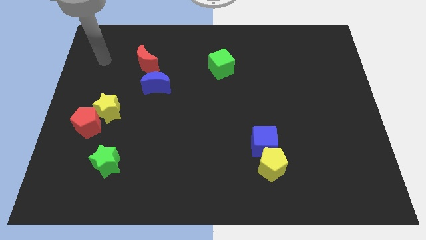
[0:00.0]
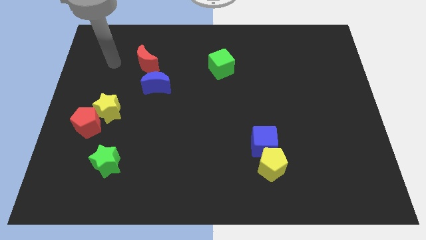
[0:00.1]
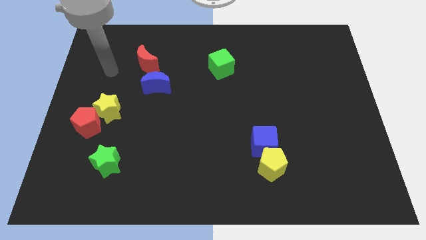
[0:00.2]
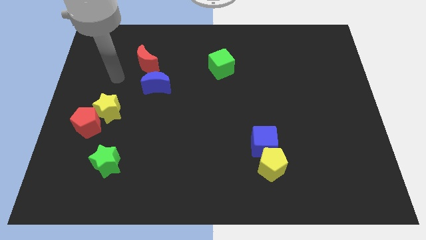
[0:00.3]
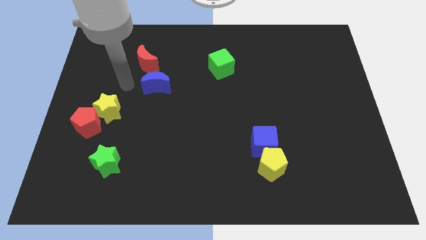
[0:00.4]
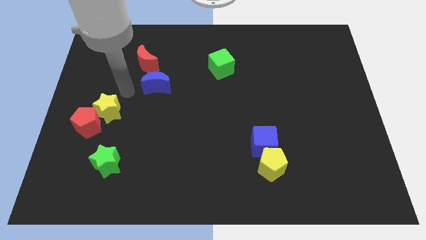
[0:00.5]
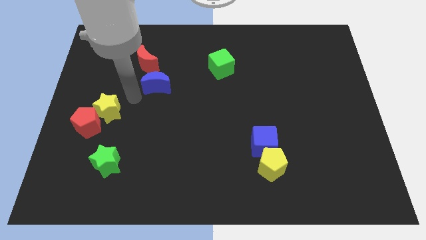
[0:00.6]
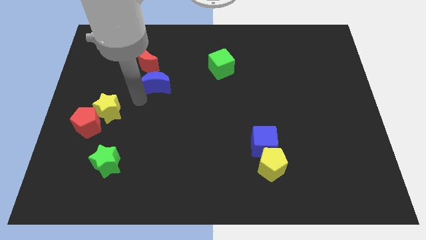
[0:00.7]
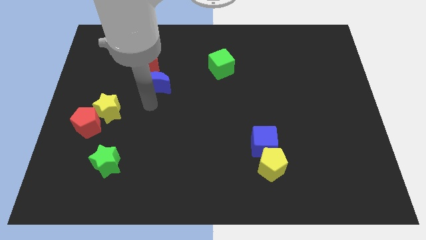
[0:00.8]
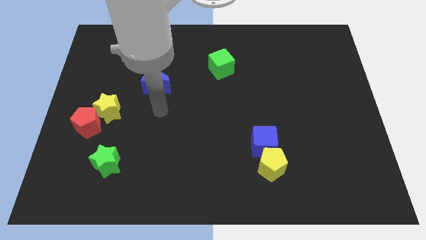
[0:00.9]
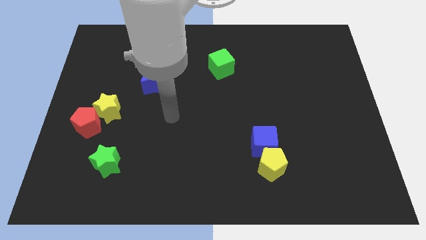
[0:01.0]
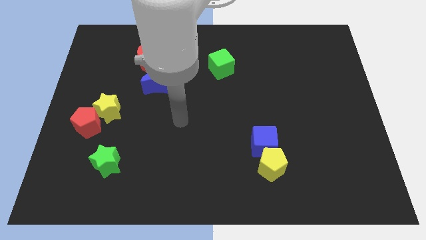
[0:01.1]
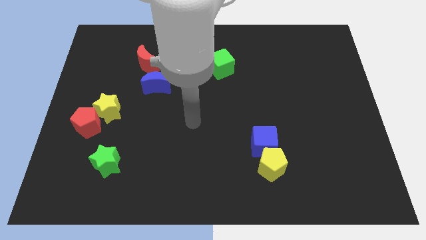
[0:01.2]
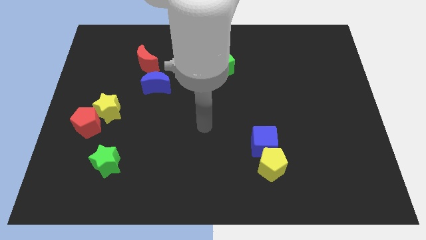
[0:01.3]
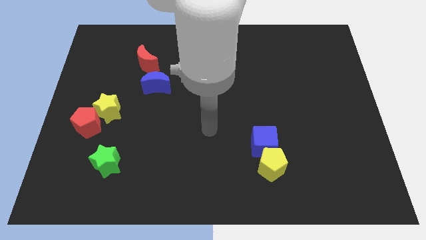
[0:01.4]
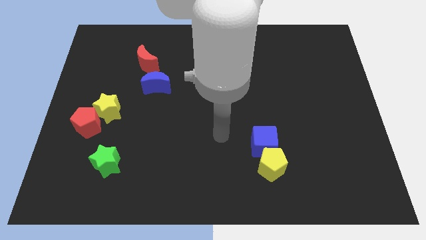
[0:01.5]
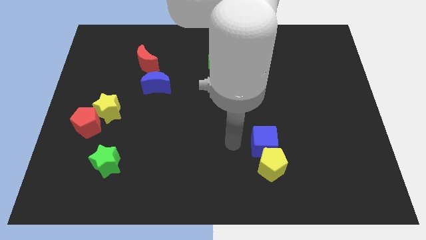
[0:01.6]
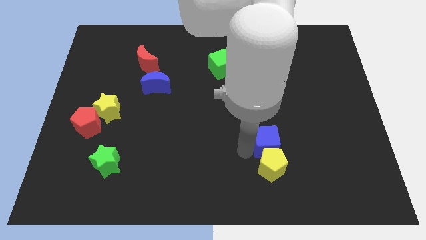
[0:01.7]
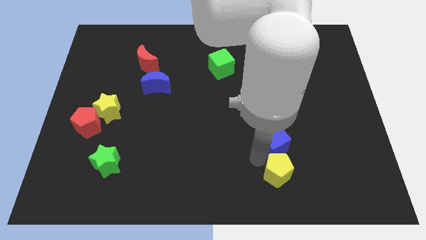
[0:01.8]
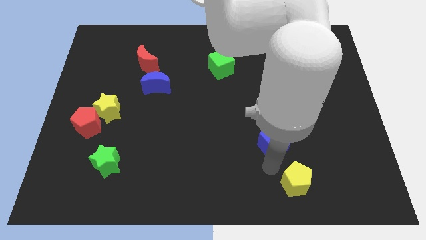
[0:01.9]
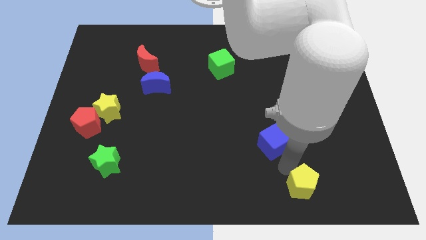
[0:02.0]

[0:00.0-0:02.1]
separate the blue cube from the yellow pentagon

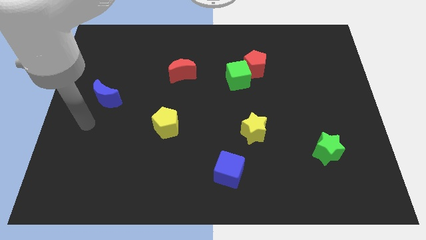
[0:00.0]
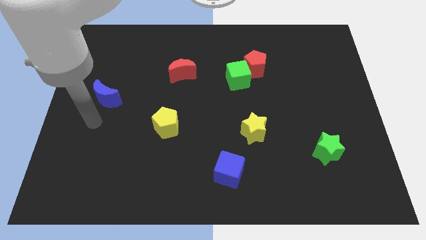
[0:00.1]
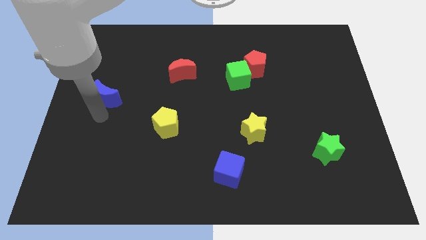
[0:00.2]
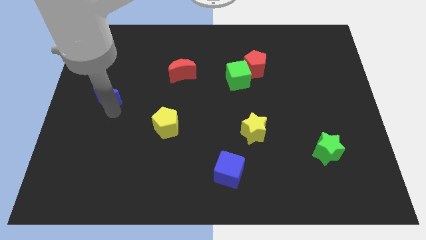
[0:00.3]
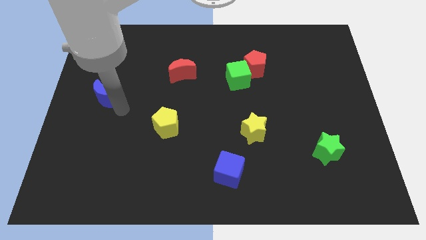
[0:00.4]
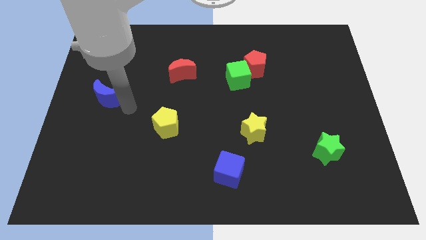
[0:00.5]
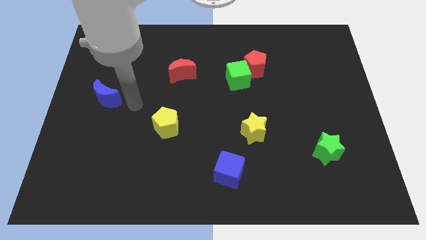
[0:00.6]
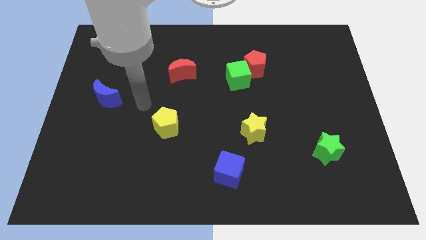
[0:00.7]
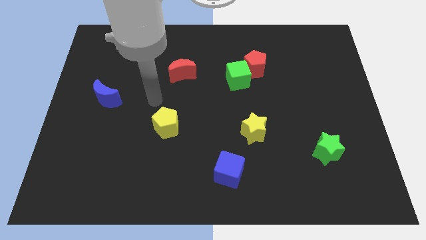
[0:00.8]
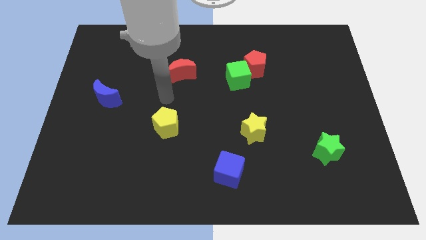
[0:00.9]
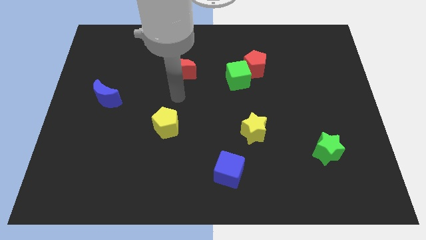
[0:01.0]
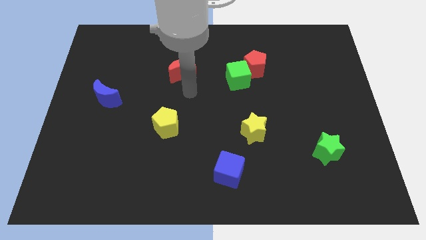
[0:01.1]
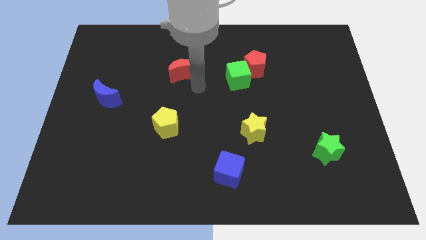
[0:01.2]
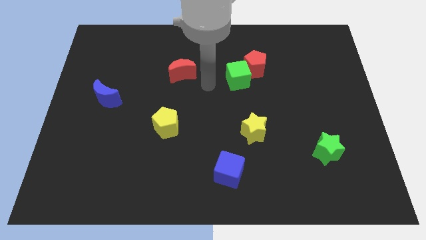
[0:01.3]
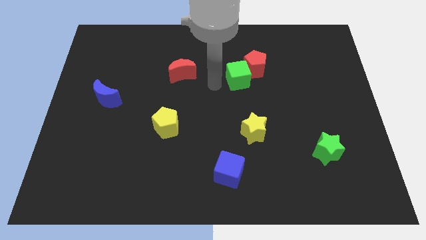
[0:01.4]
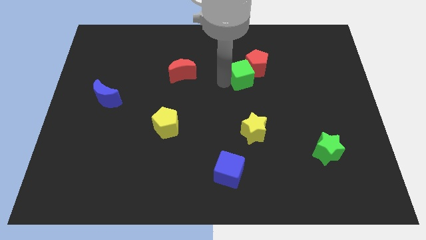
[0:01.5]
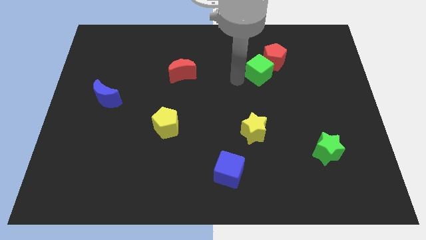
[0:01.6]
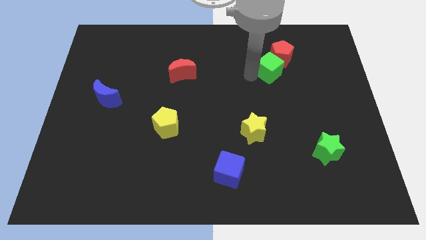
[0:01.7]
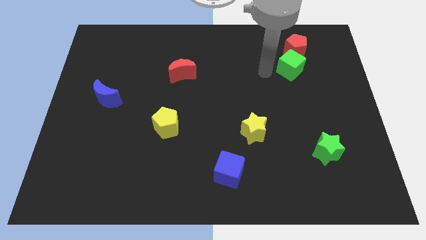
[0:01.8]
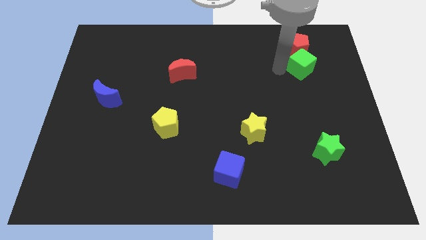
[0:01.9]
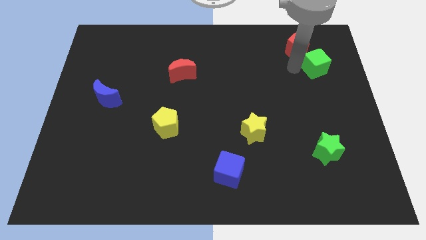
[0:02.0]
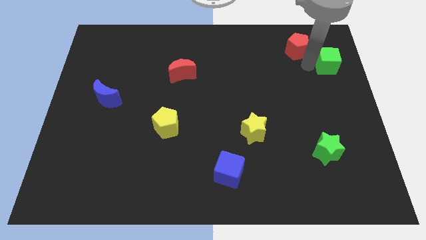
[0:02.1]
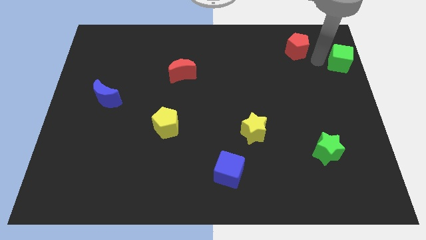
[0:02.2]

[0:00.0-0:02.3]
pull the red pentagon apart from the green cube

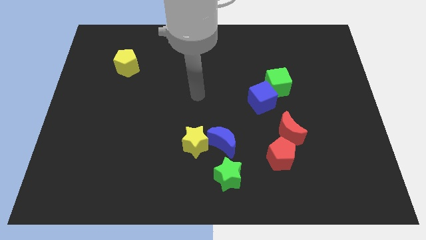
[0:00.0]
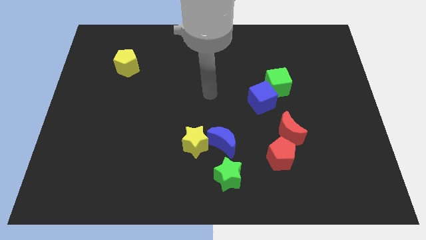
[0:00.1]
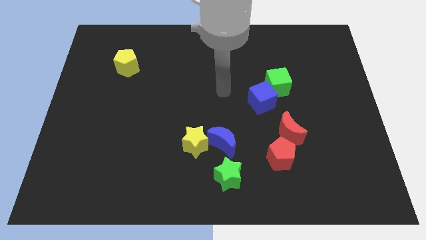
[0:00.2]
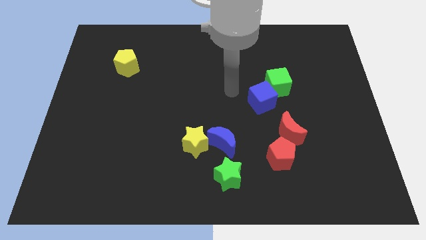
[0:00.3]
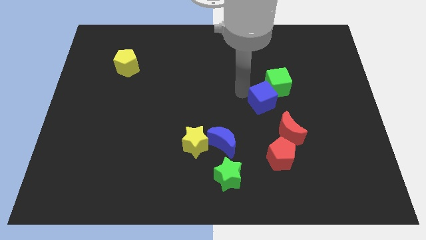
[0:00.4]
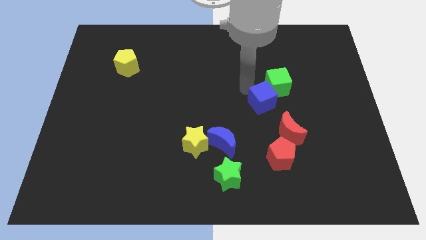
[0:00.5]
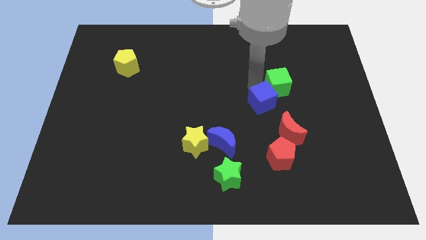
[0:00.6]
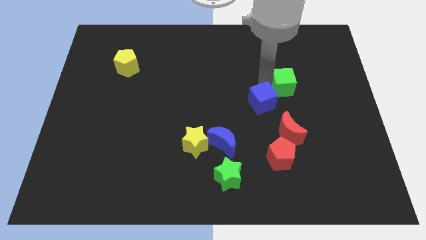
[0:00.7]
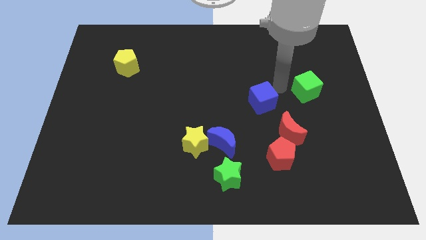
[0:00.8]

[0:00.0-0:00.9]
move the blue cube away from the green cube

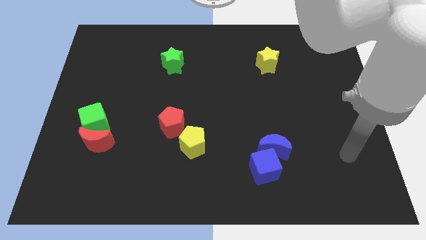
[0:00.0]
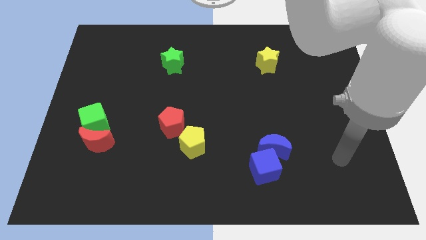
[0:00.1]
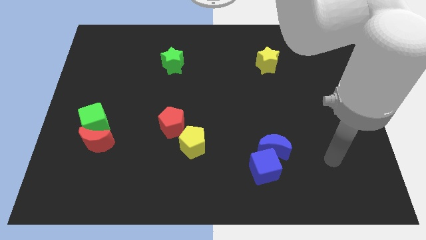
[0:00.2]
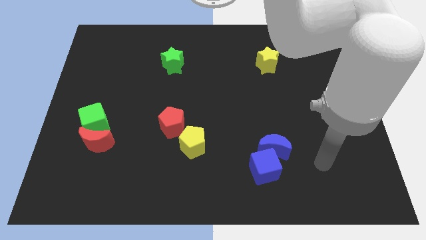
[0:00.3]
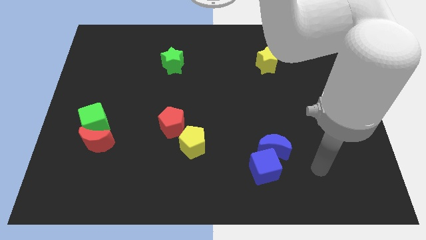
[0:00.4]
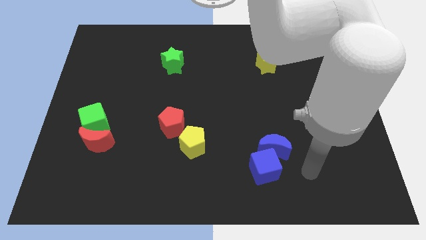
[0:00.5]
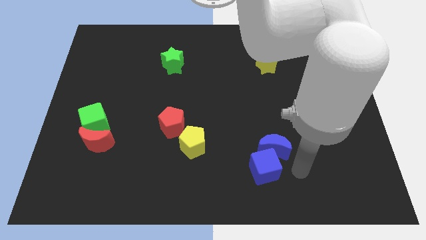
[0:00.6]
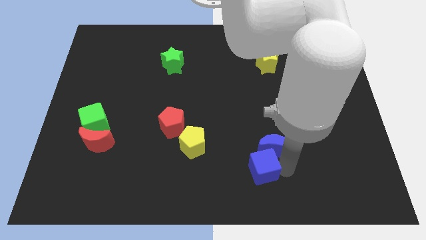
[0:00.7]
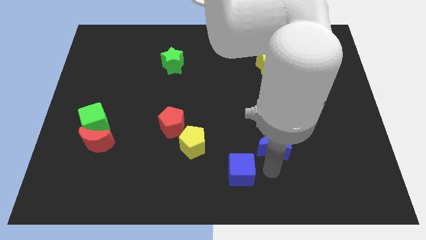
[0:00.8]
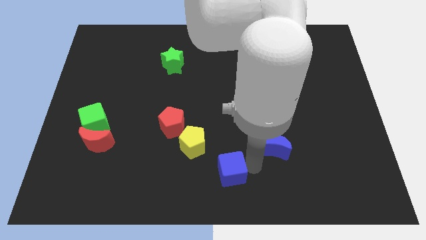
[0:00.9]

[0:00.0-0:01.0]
move the blue moon away from the blue cube

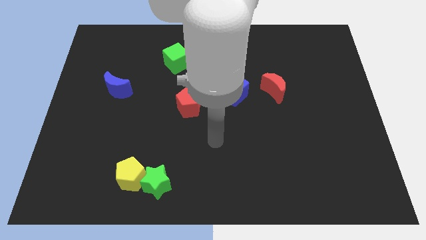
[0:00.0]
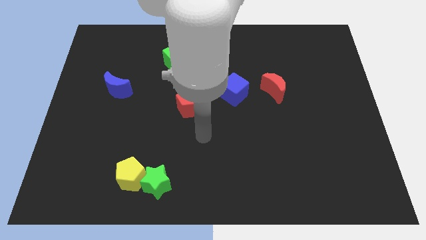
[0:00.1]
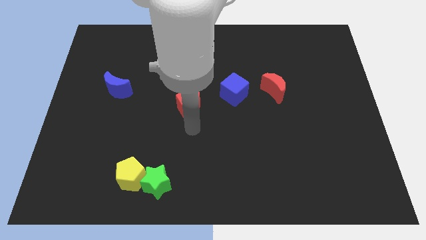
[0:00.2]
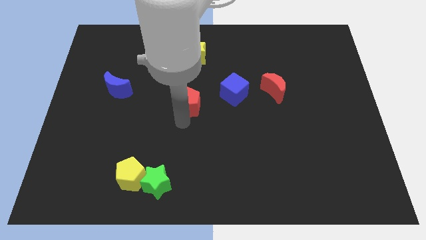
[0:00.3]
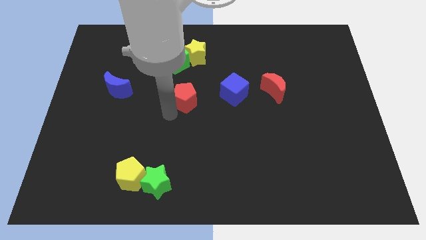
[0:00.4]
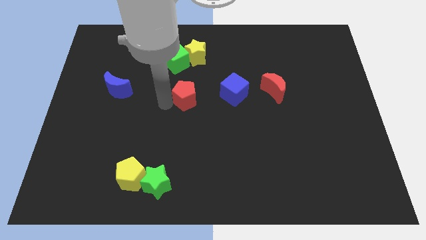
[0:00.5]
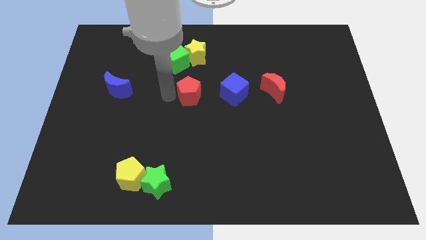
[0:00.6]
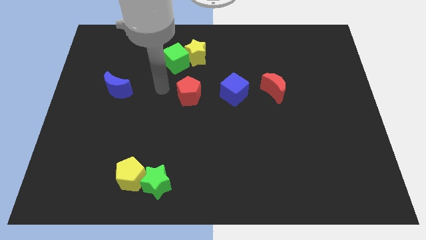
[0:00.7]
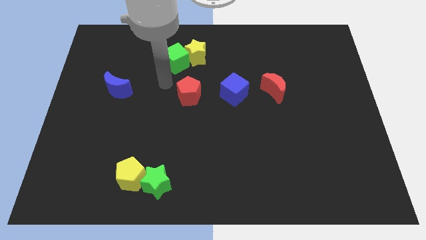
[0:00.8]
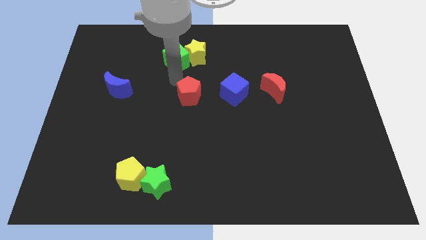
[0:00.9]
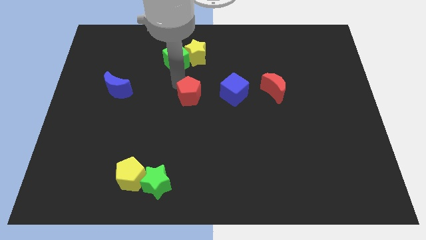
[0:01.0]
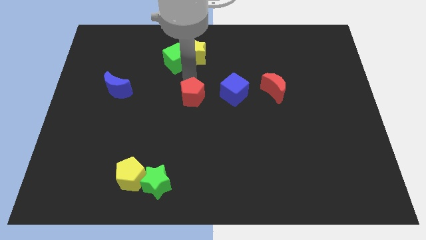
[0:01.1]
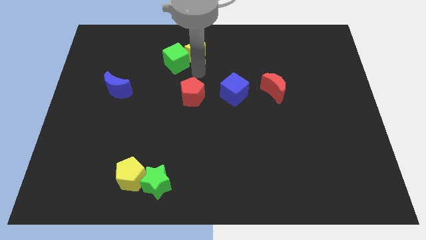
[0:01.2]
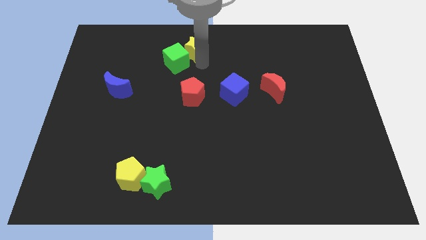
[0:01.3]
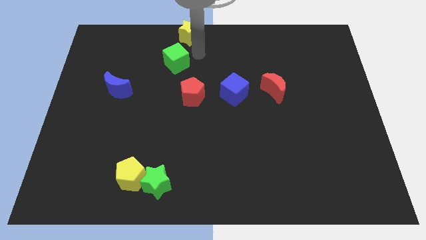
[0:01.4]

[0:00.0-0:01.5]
move the green cube away from the yellow star

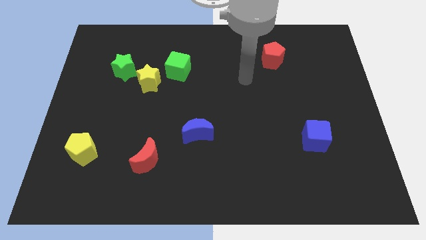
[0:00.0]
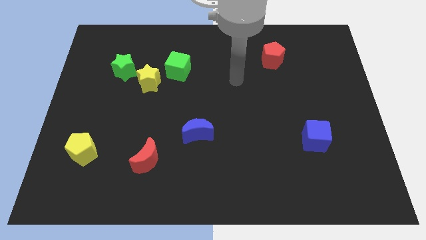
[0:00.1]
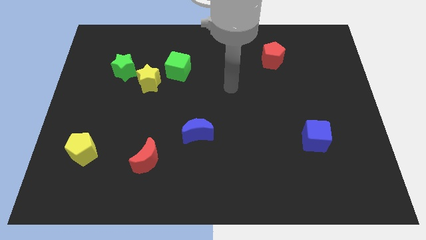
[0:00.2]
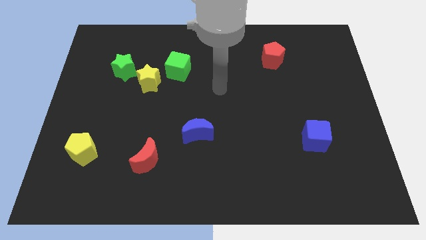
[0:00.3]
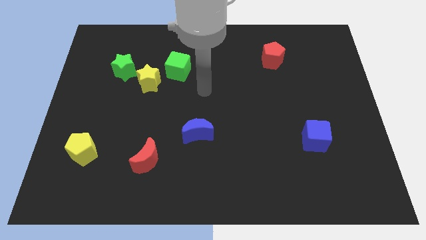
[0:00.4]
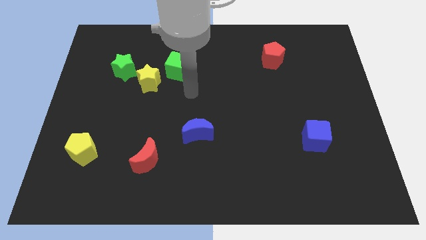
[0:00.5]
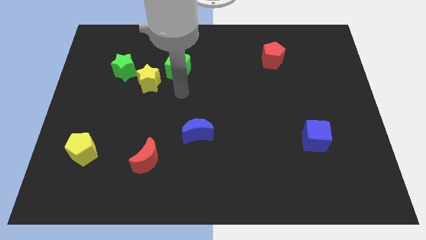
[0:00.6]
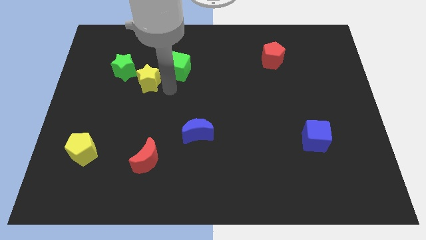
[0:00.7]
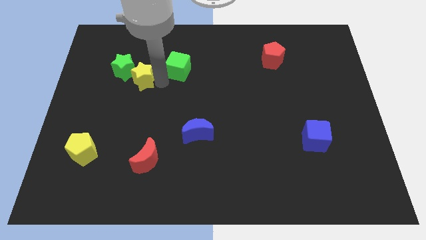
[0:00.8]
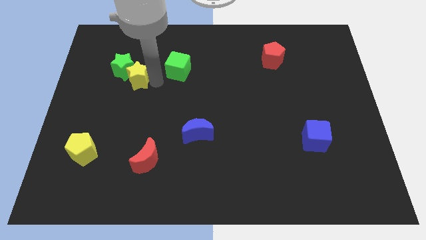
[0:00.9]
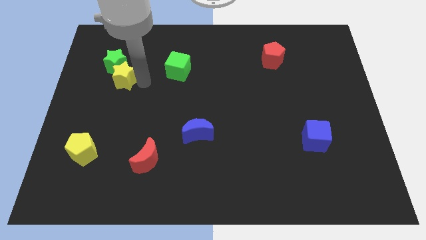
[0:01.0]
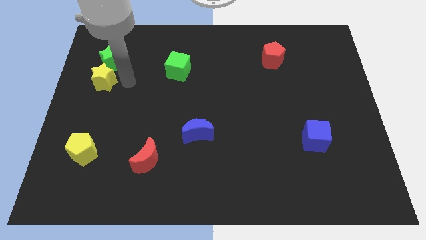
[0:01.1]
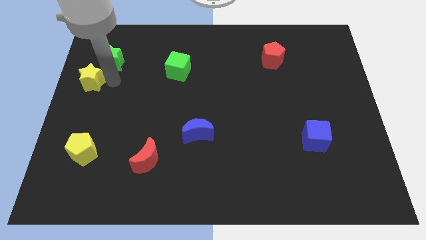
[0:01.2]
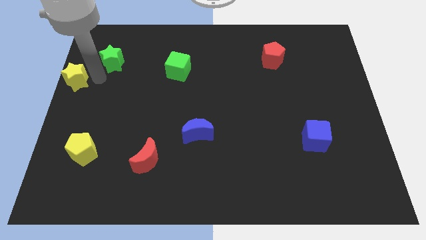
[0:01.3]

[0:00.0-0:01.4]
pull the green star apart from the yellow star

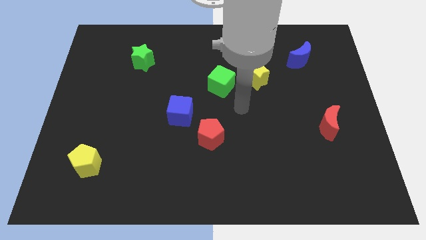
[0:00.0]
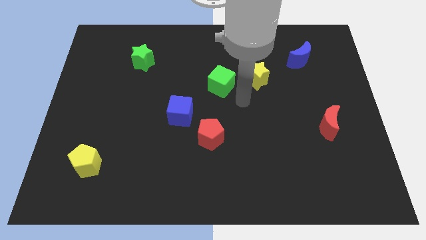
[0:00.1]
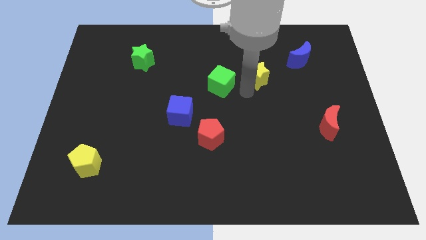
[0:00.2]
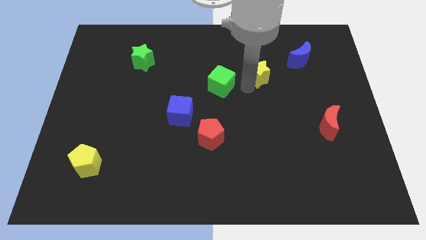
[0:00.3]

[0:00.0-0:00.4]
pull the green cube apart from the yellow star
